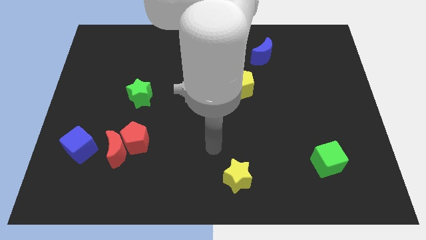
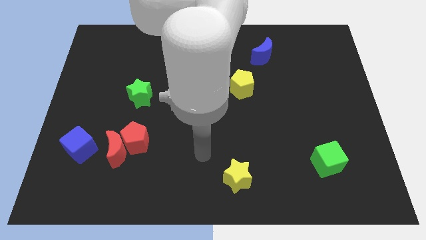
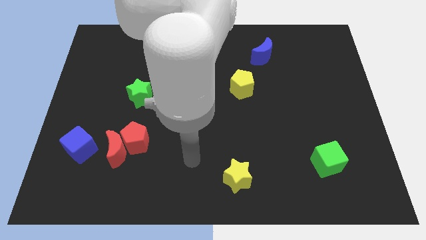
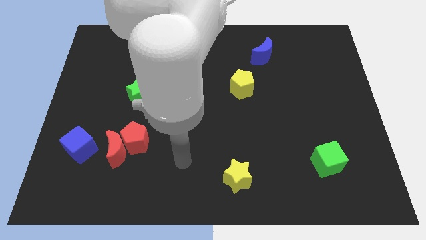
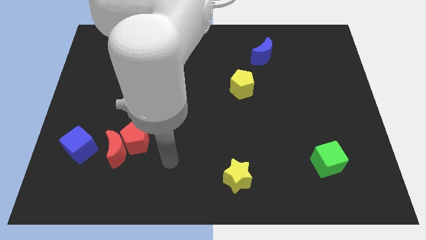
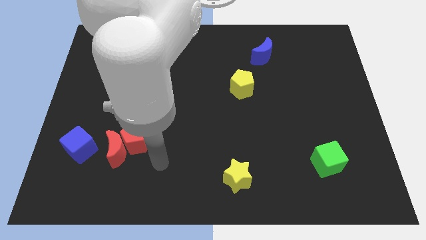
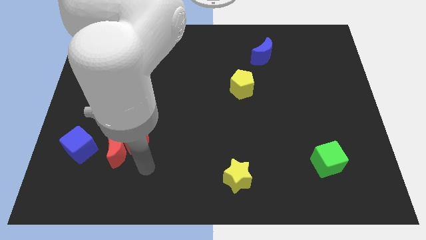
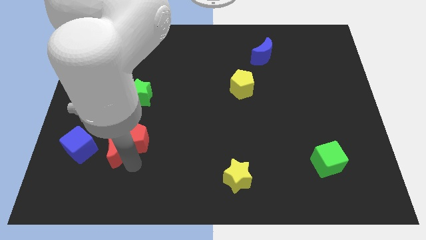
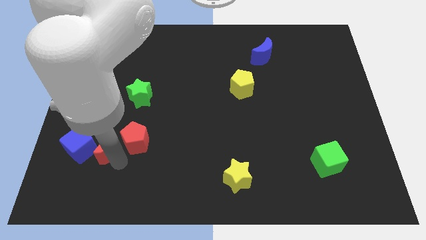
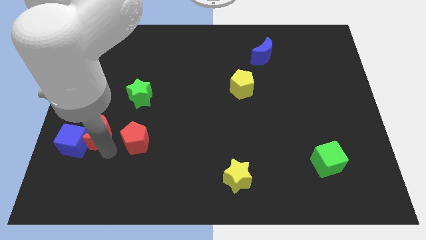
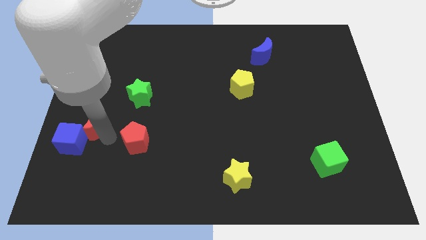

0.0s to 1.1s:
pull the red pentagon apart from the red moon

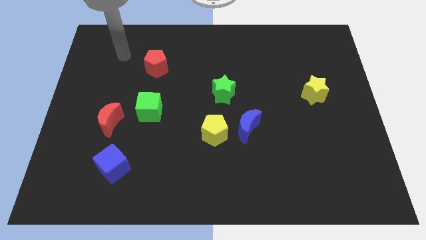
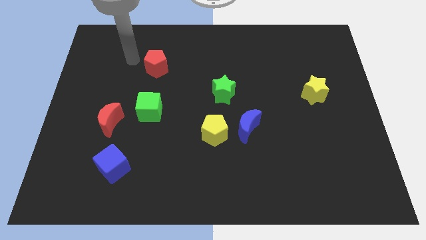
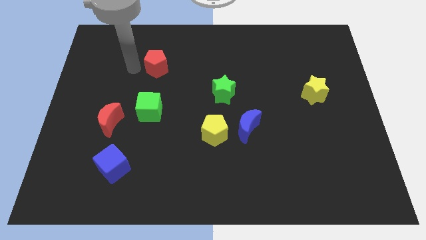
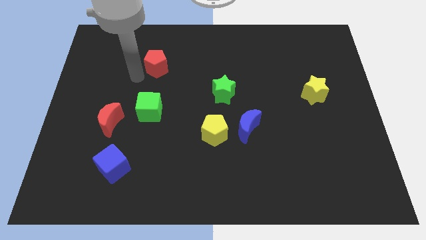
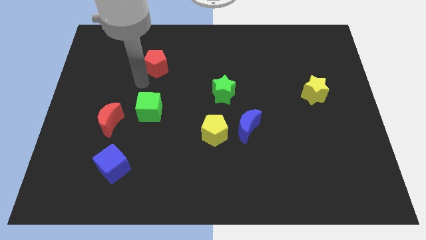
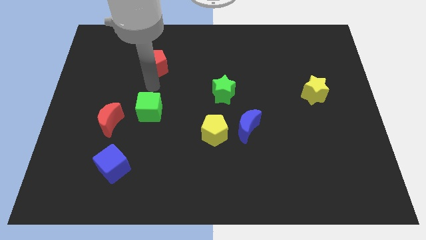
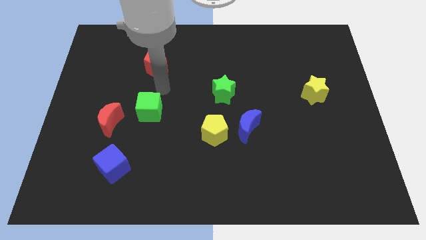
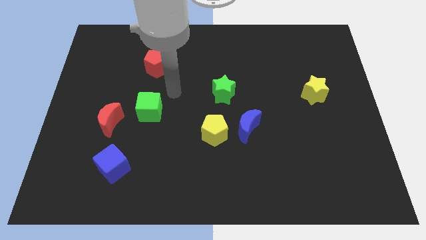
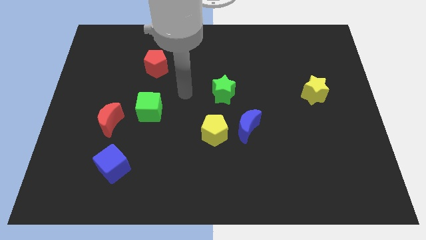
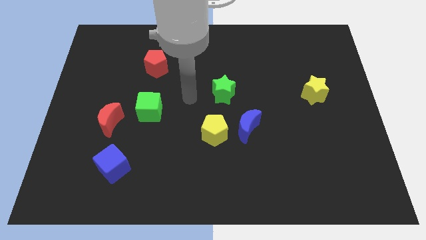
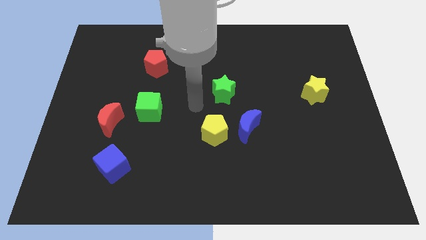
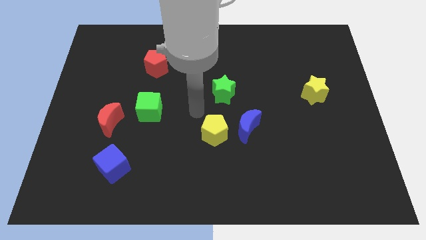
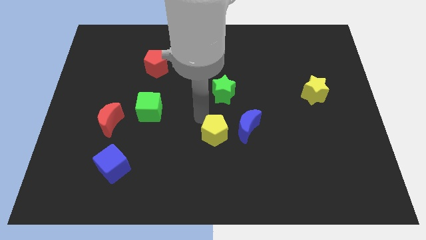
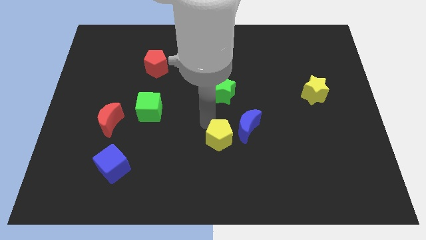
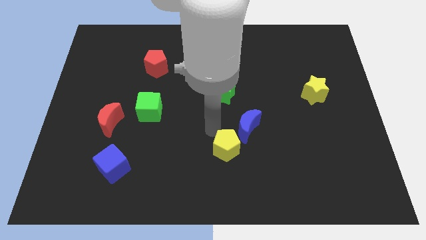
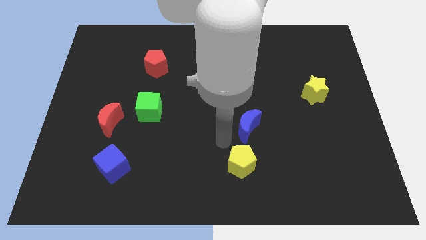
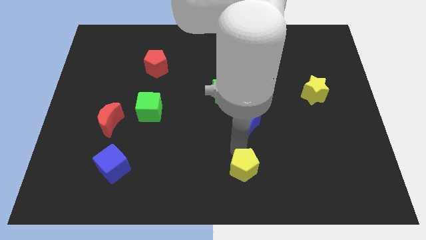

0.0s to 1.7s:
separate the blue moon from the yellow pentagon

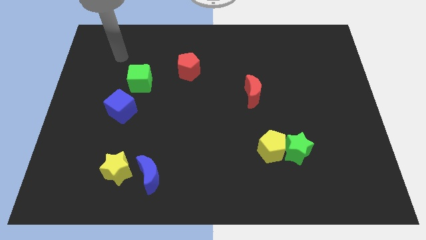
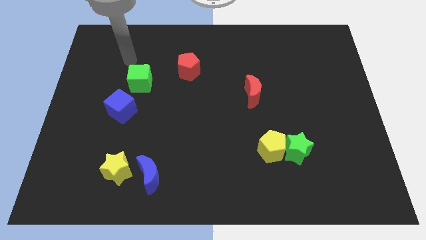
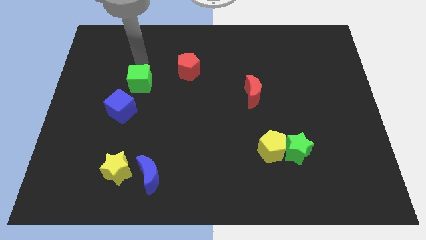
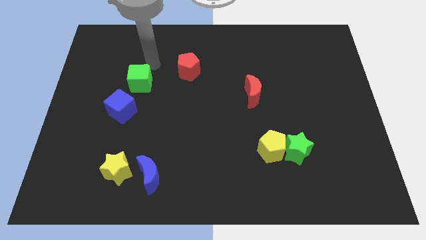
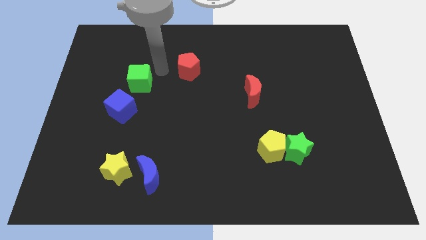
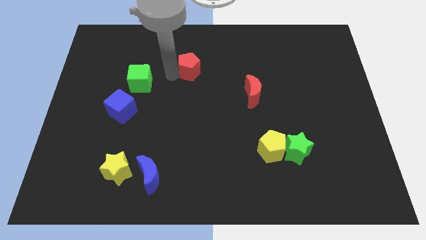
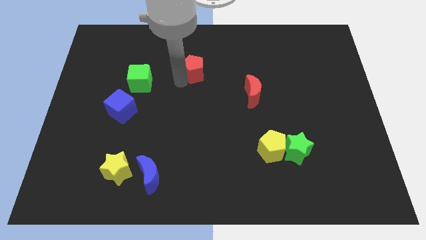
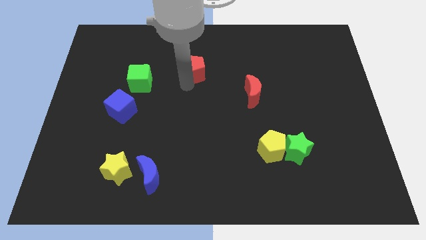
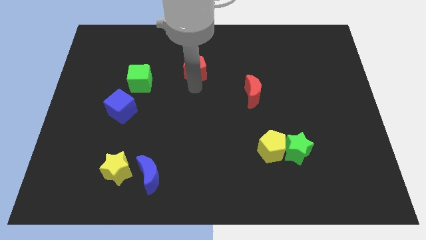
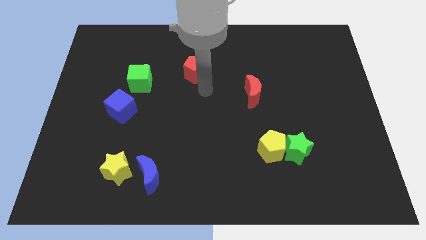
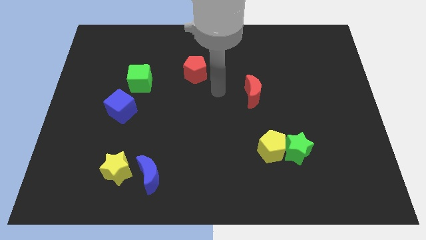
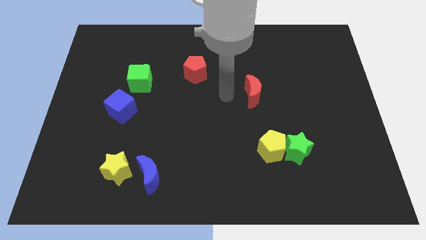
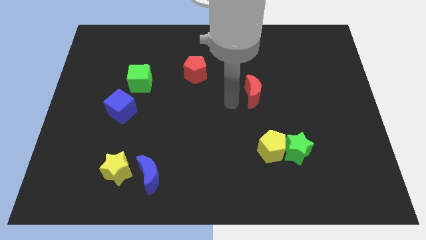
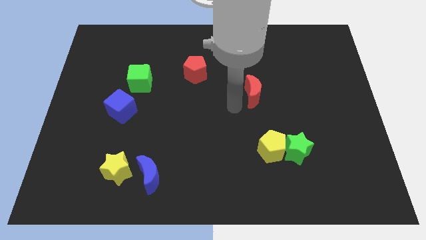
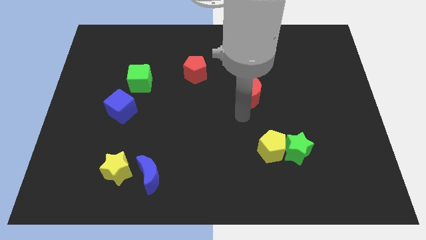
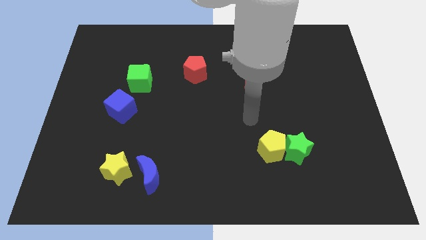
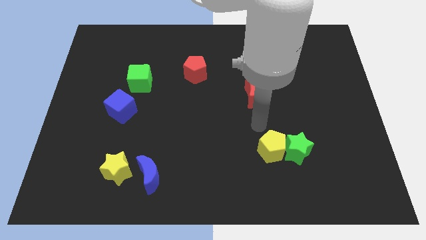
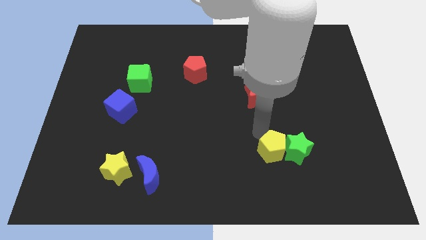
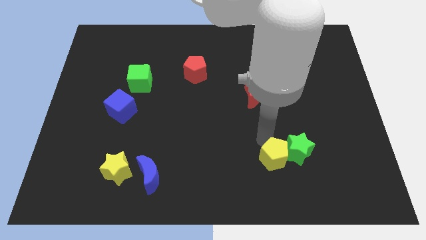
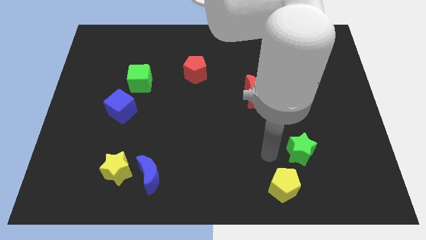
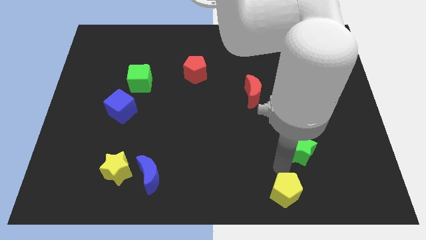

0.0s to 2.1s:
pull the green star apart from the yellow pentagon

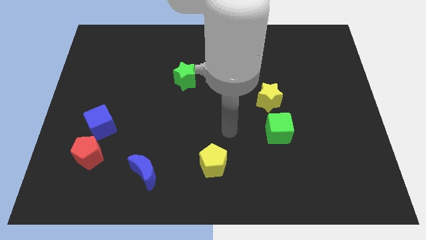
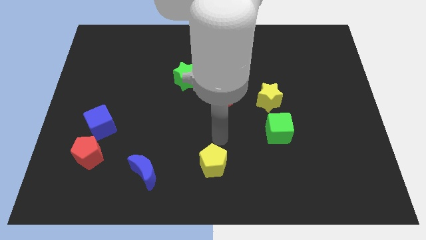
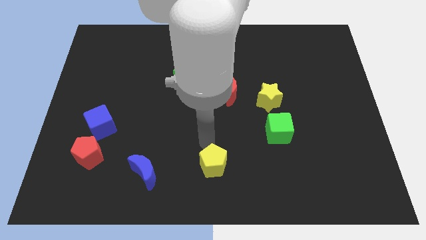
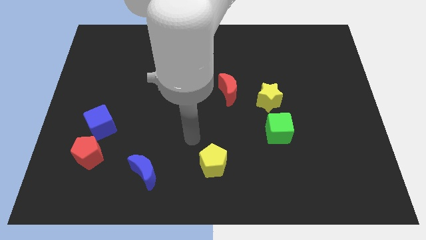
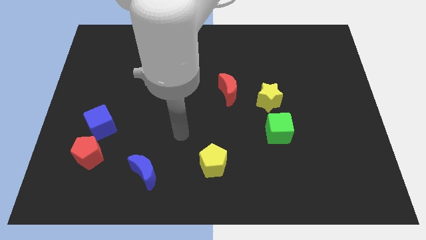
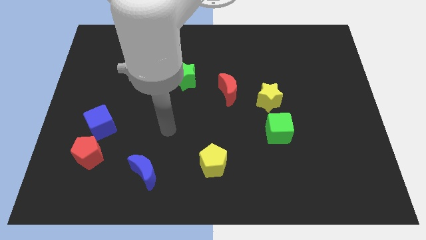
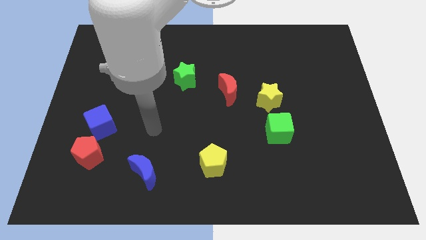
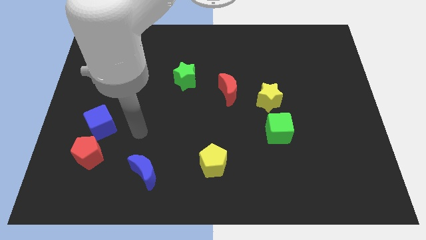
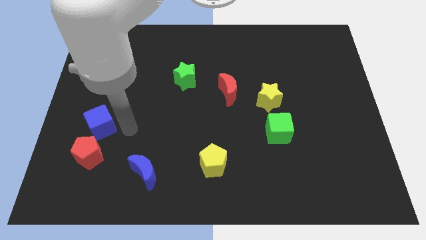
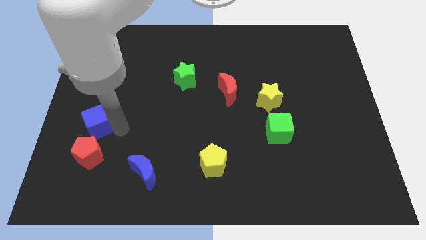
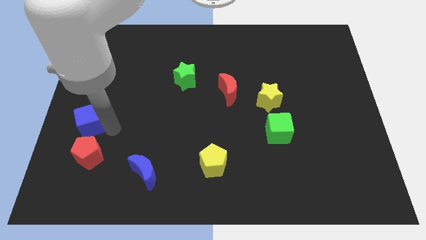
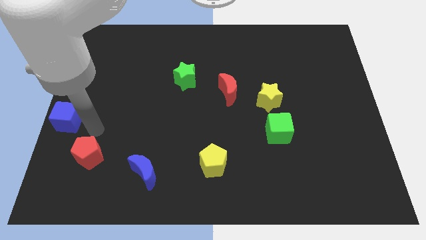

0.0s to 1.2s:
pull the red pentagon apart from the blue cube

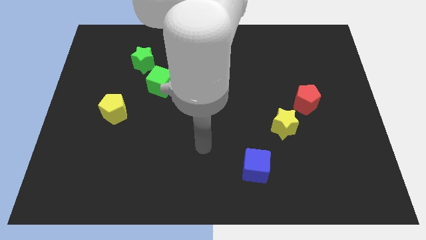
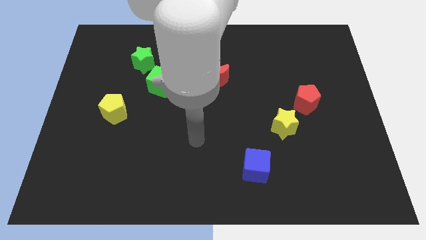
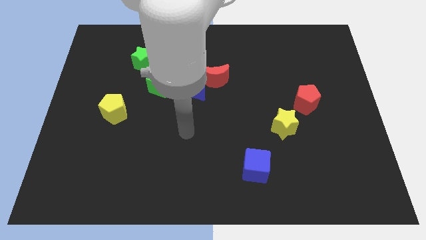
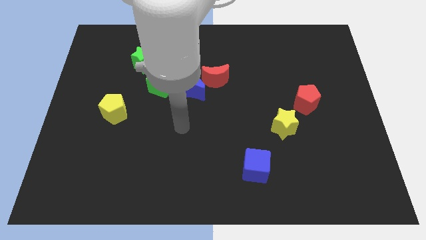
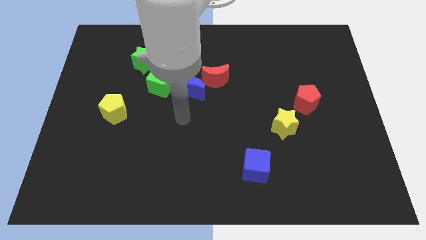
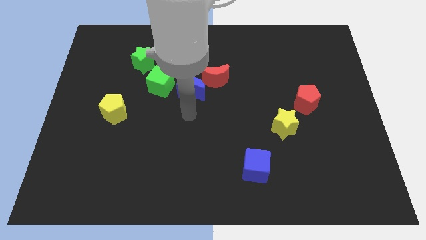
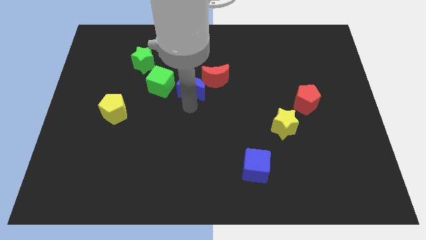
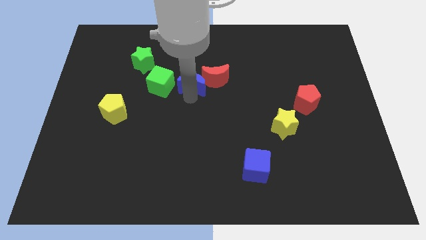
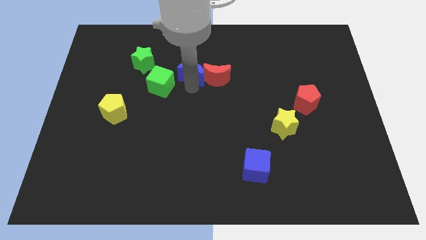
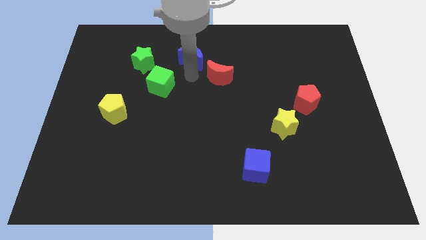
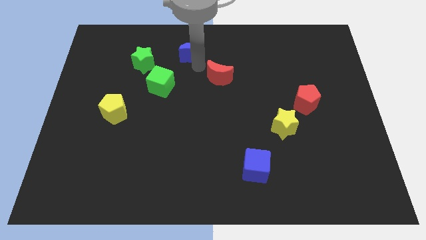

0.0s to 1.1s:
pull the red moon apart from the blue moon

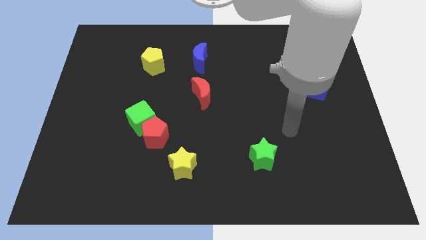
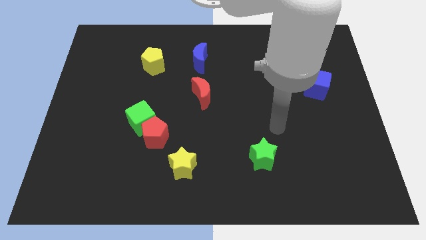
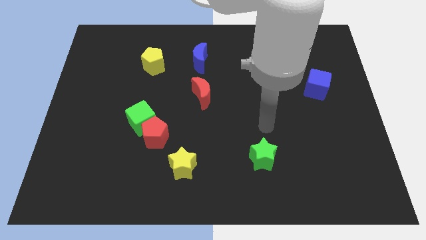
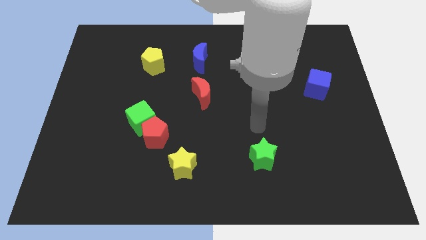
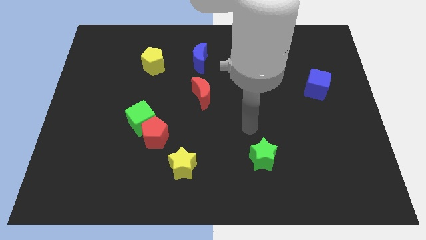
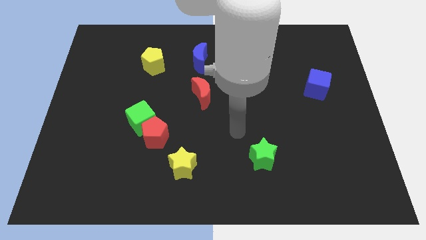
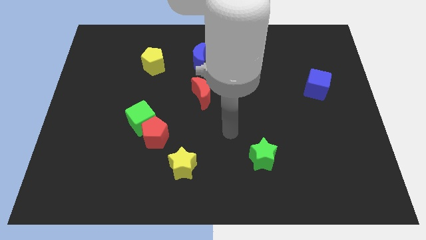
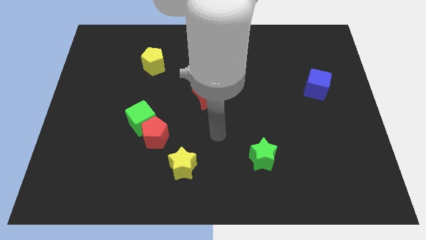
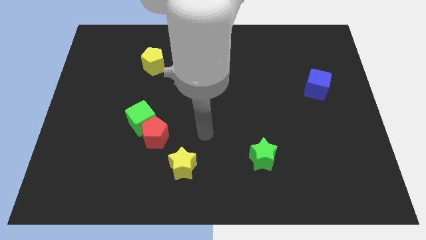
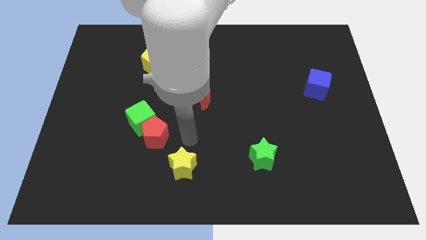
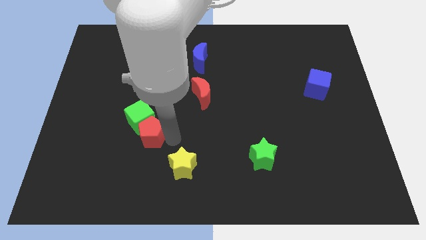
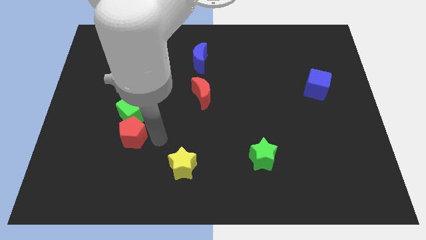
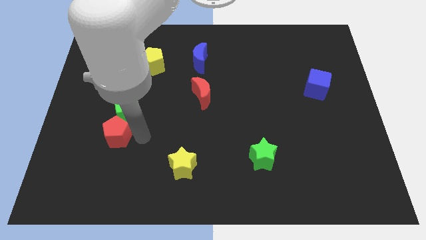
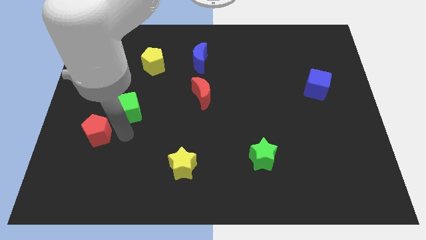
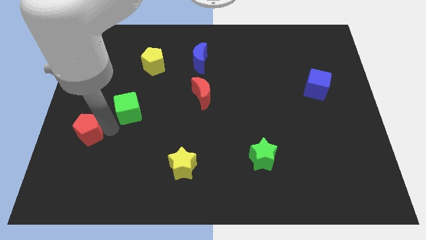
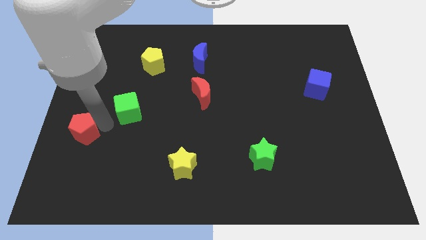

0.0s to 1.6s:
pull the green cube apart from the red pentagon

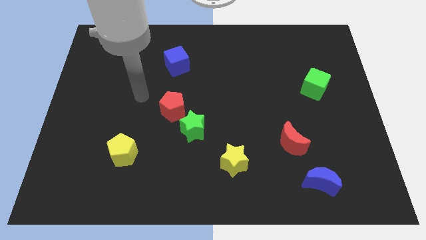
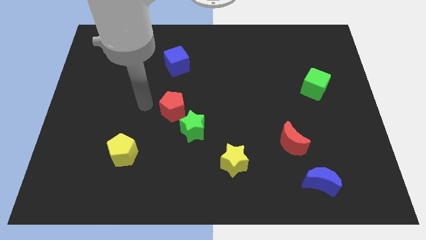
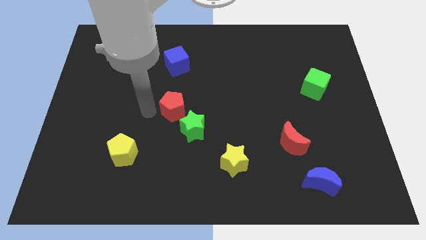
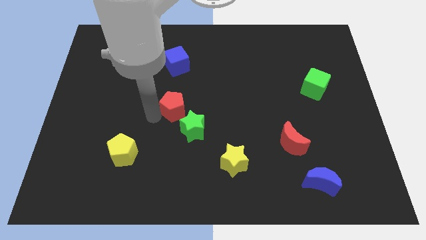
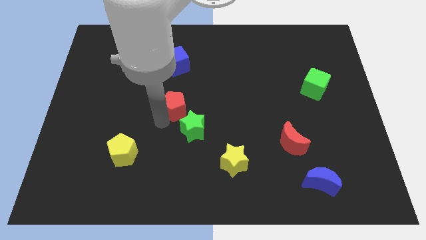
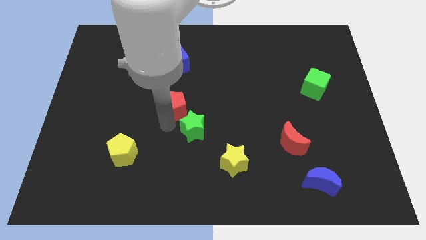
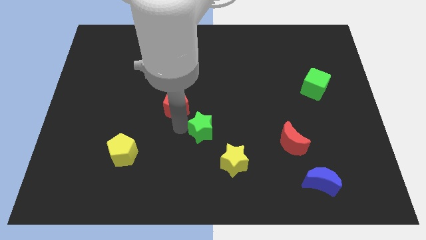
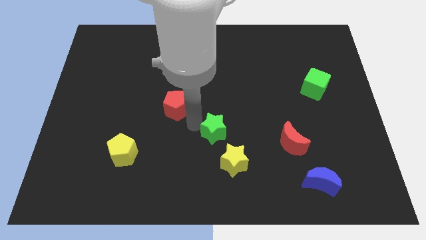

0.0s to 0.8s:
separate the red pentagon from the green star
